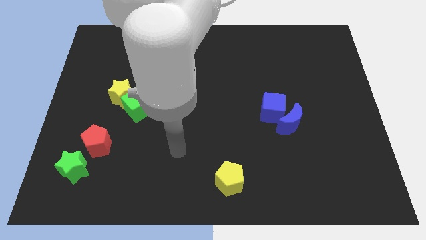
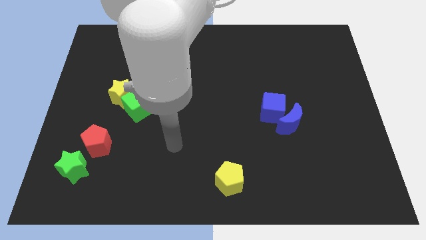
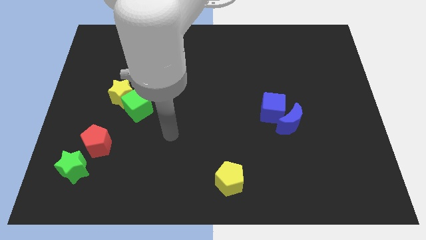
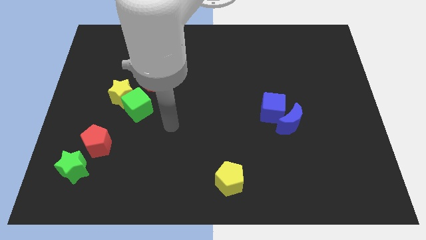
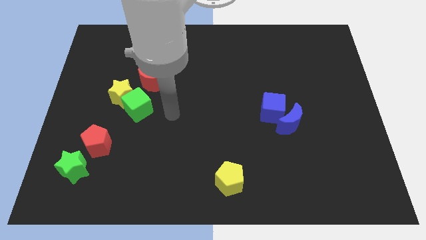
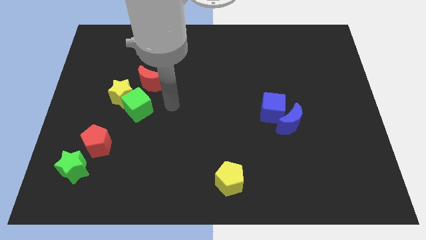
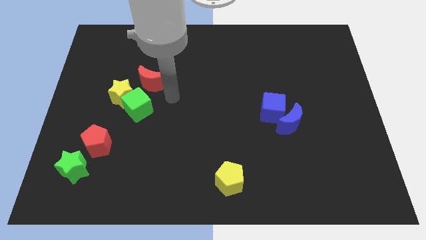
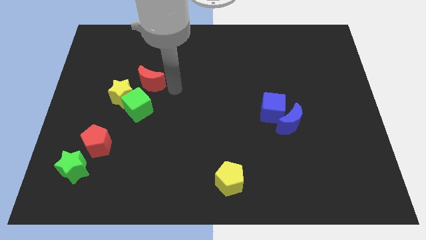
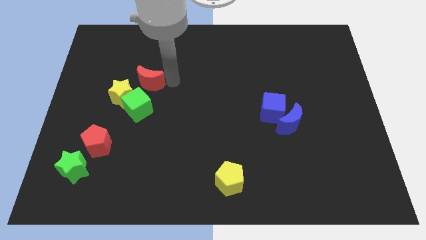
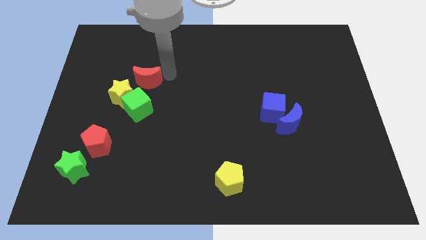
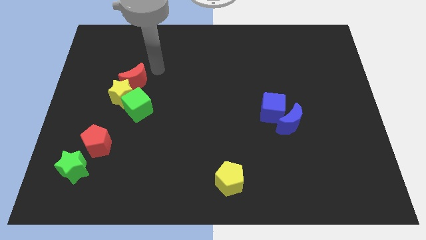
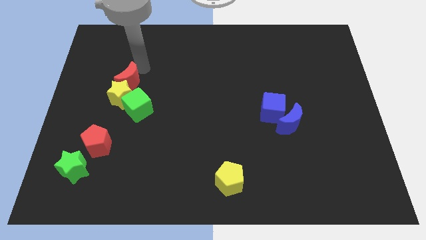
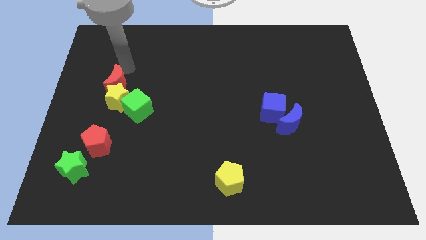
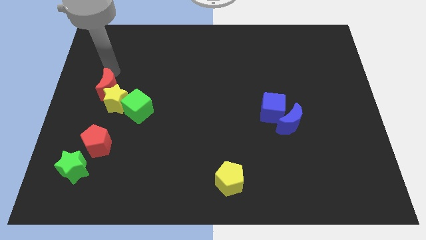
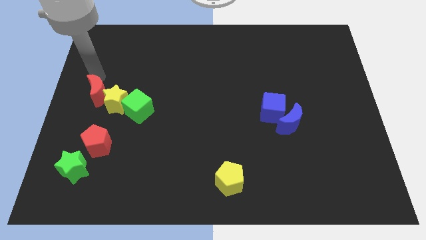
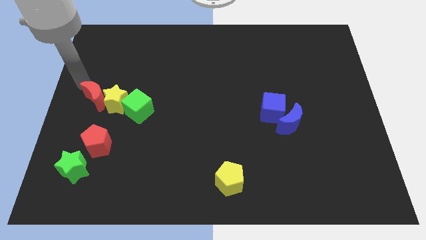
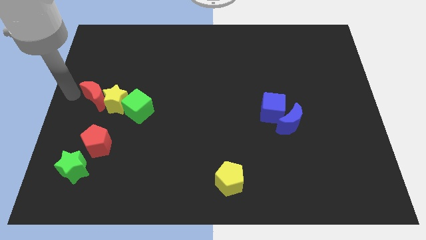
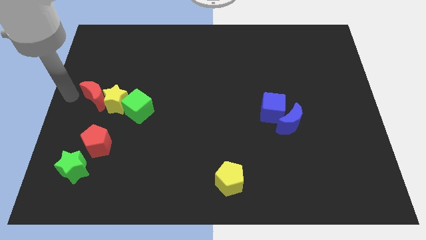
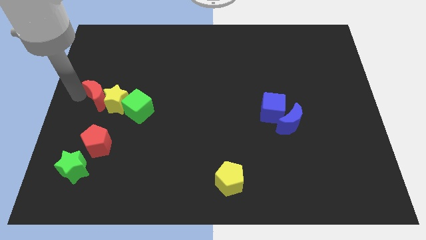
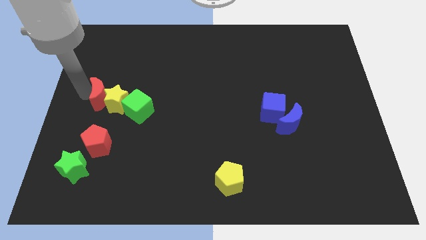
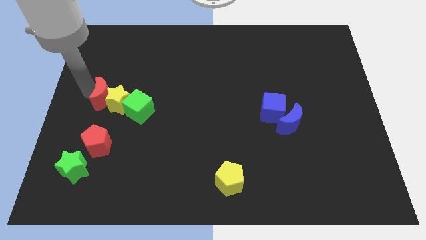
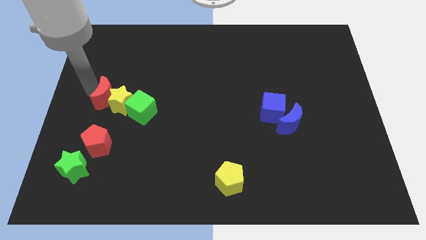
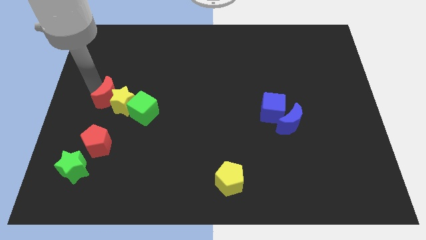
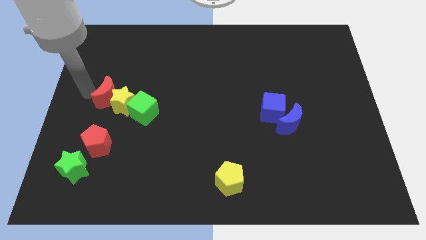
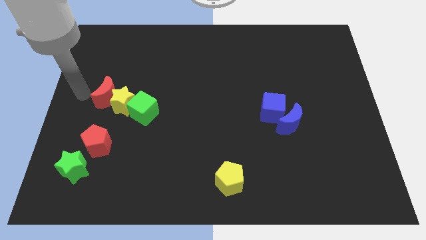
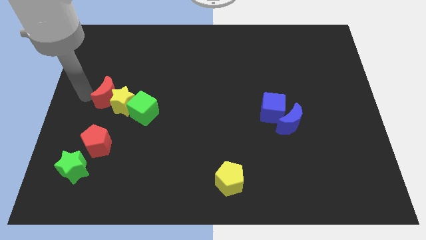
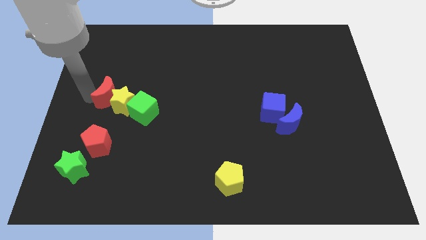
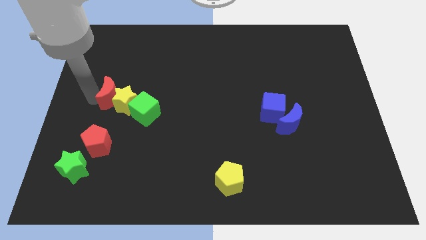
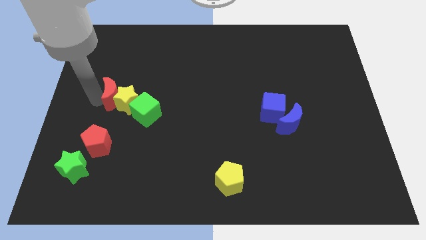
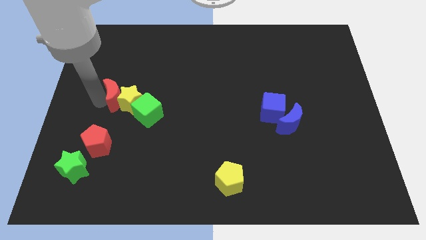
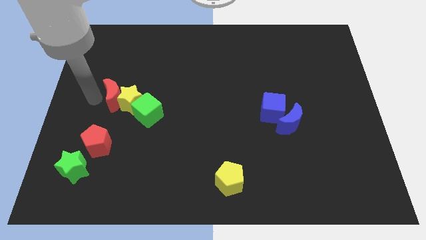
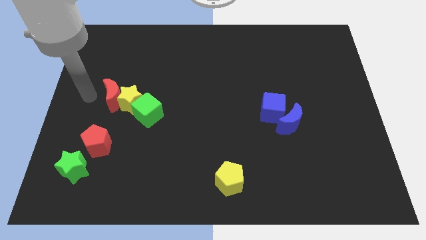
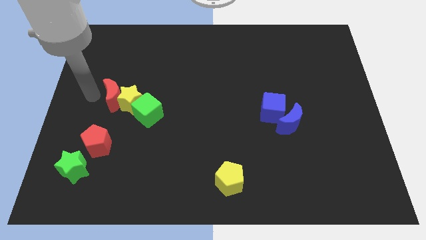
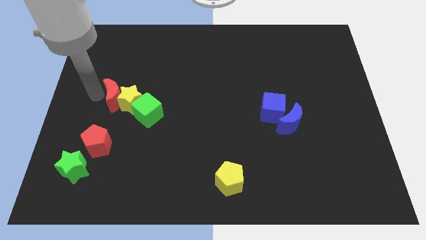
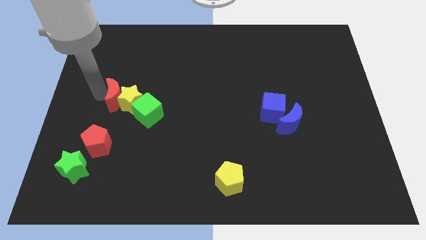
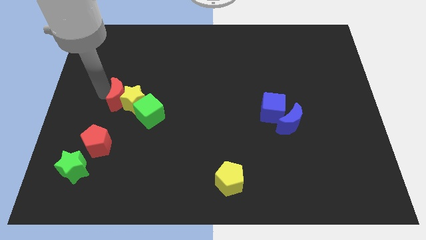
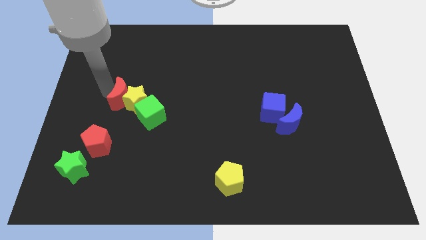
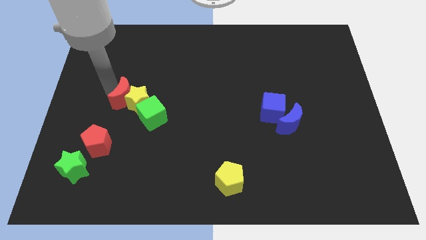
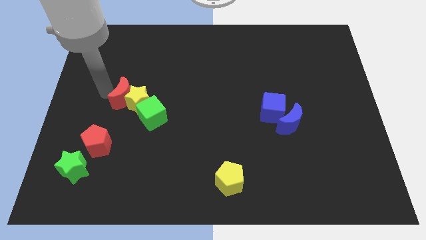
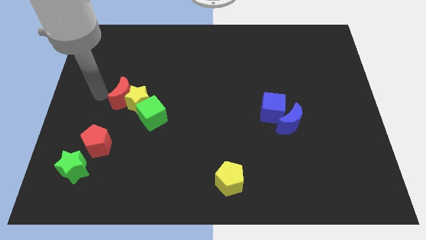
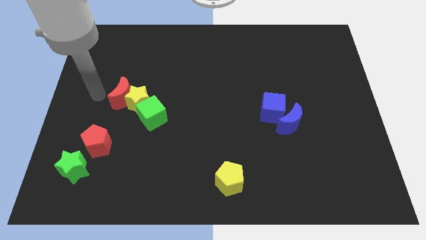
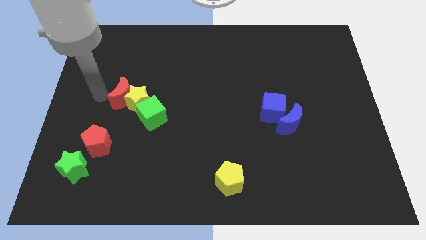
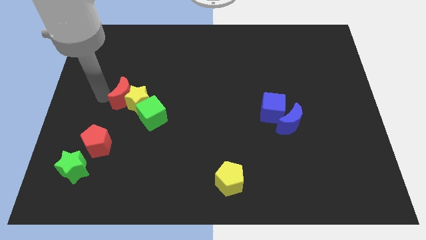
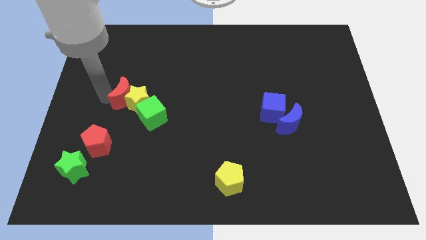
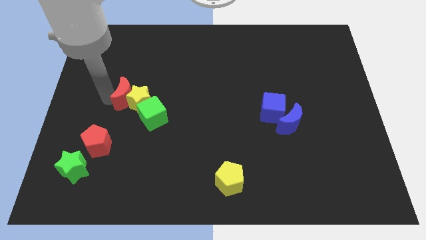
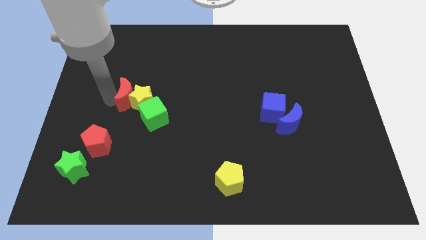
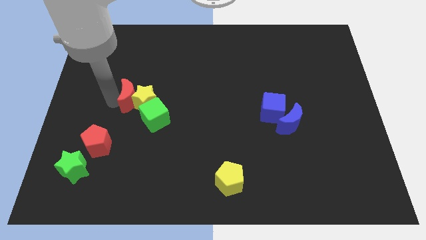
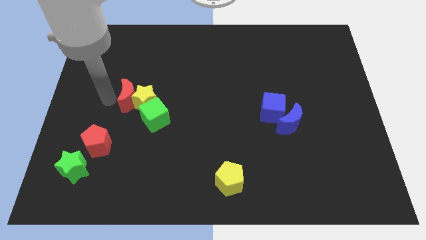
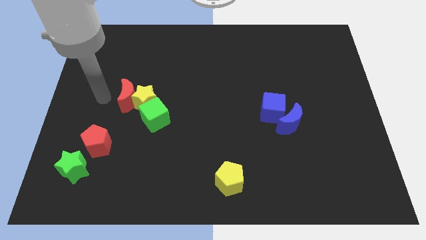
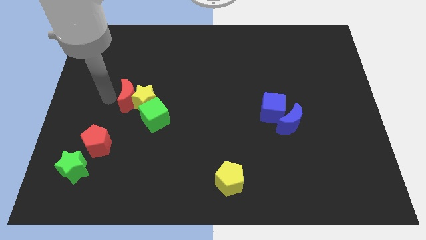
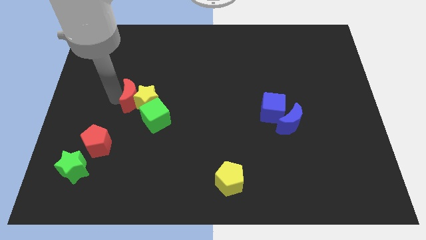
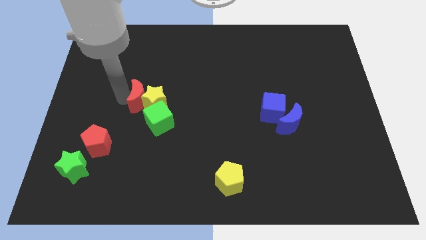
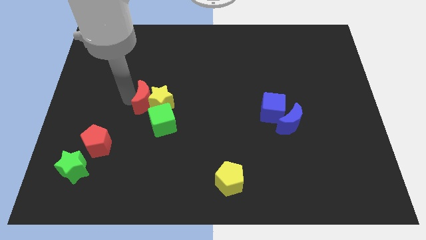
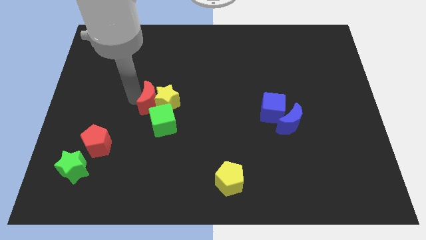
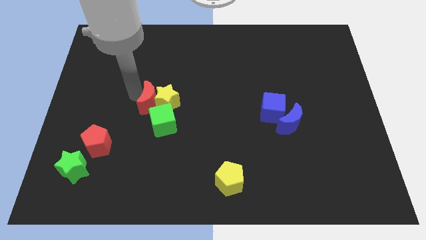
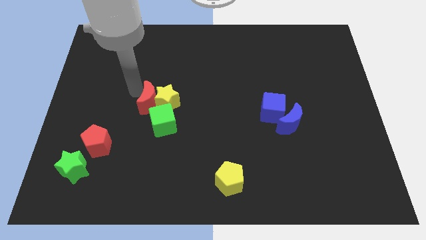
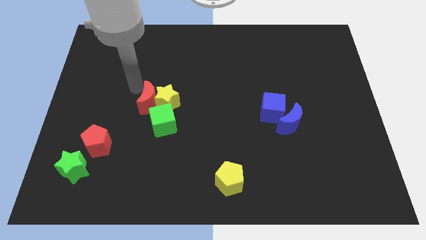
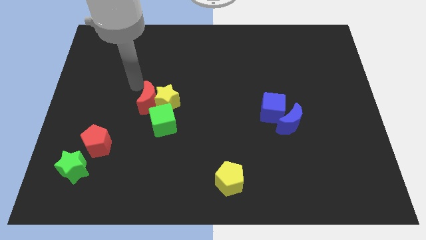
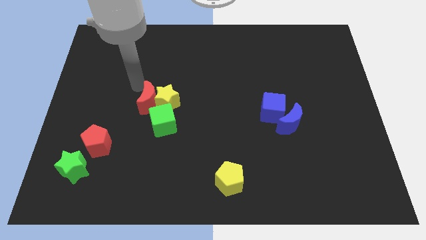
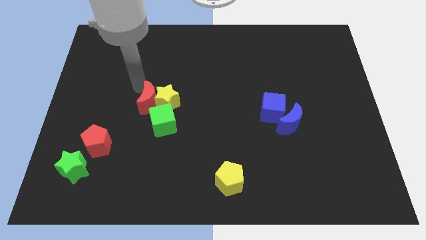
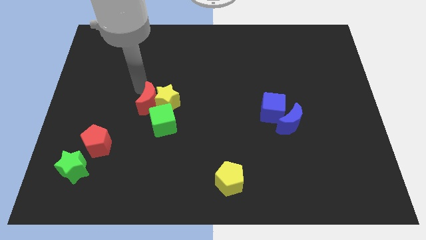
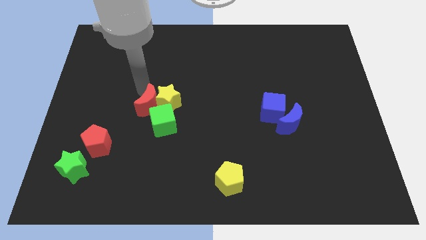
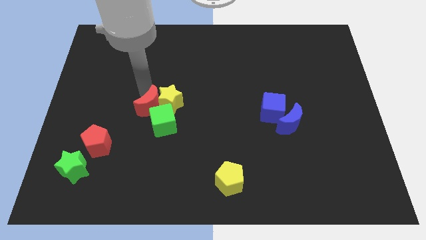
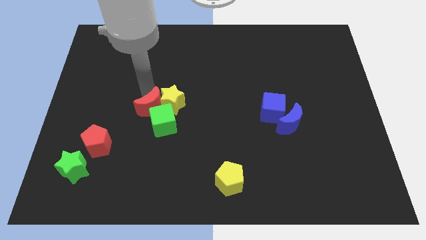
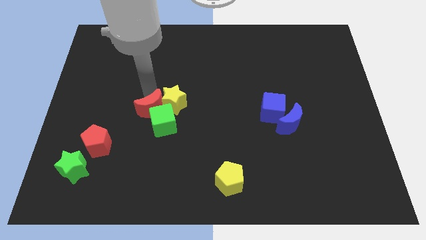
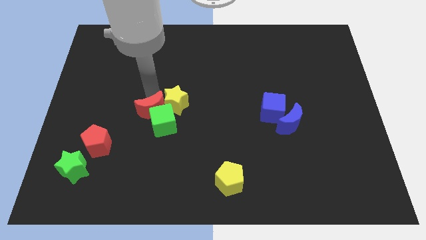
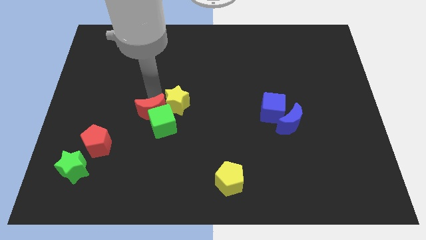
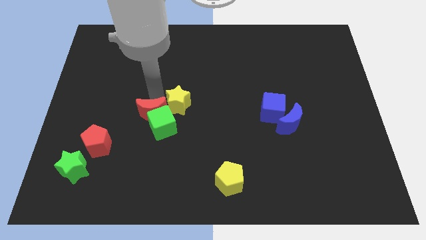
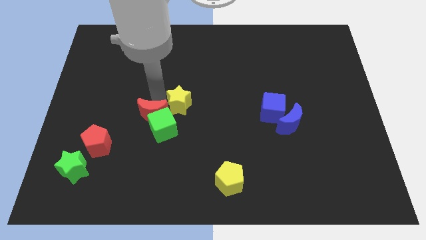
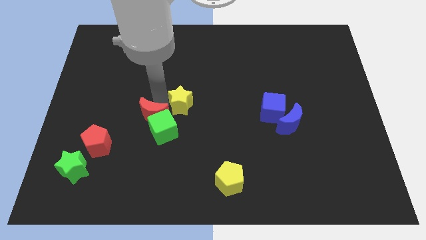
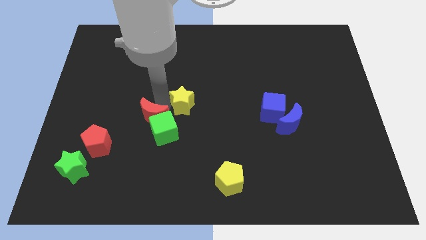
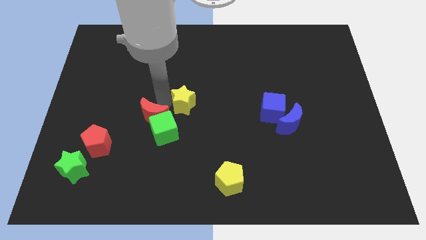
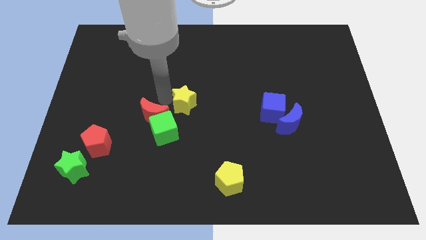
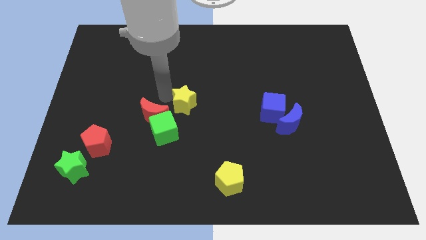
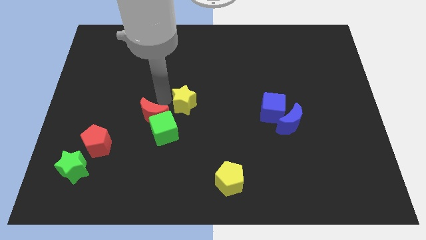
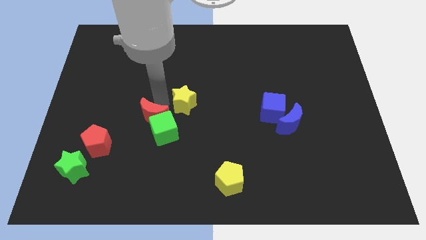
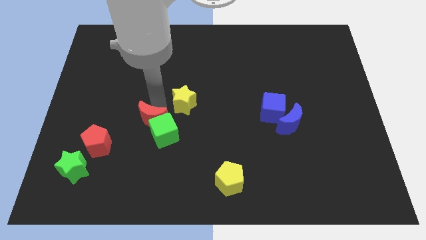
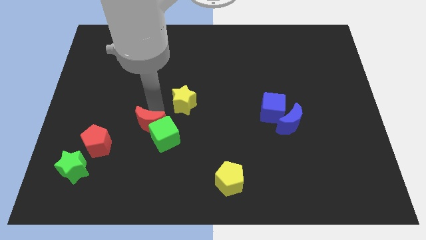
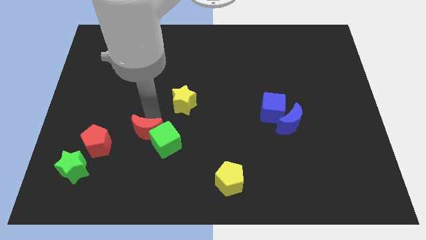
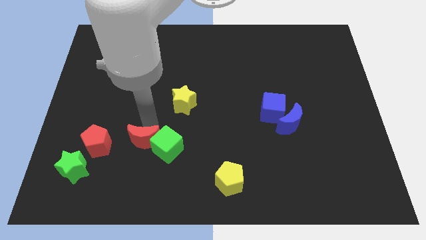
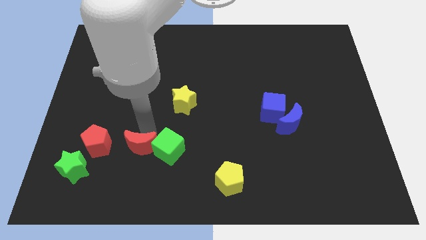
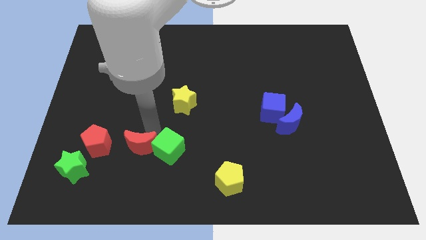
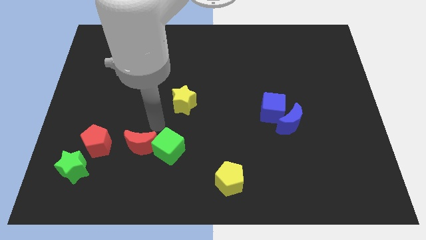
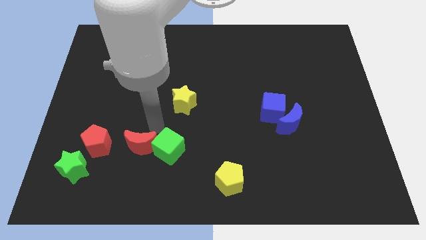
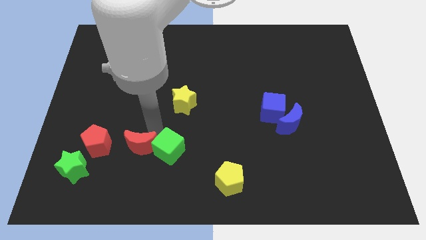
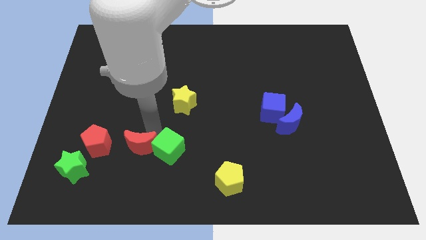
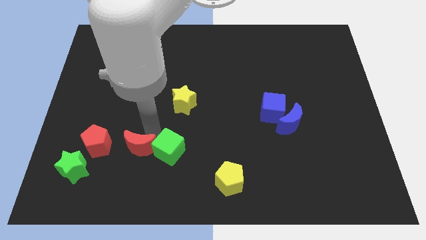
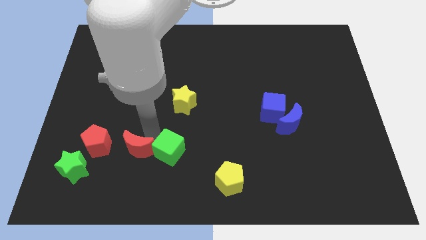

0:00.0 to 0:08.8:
slide the red moon to the right side of the green star
